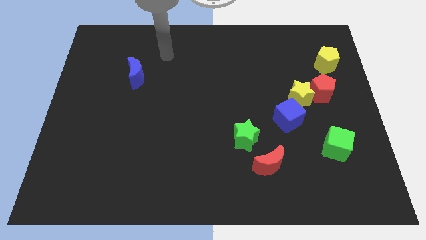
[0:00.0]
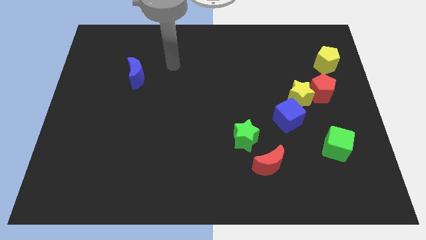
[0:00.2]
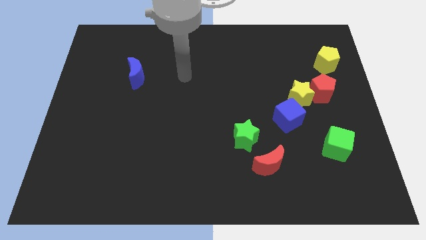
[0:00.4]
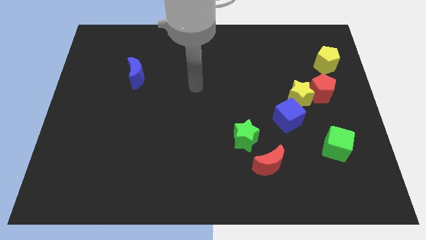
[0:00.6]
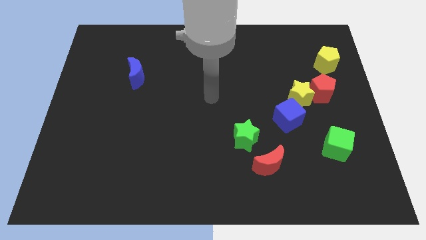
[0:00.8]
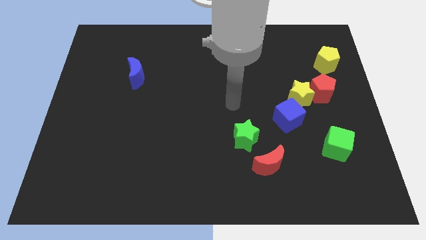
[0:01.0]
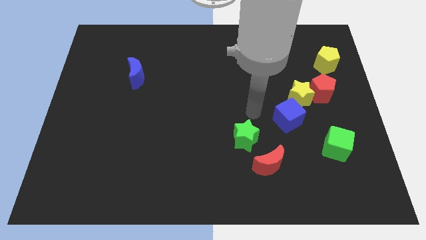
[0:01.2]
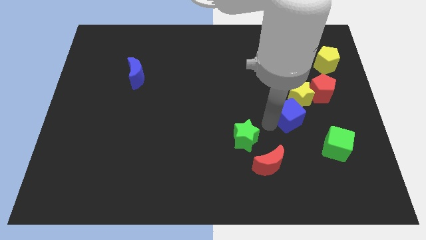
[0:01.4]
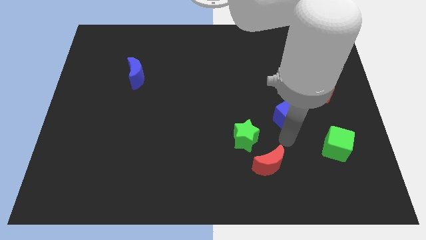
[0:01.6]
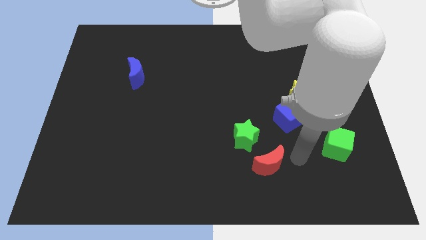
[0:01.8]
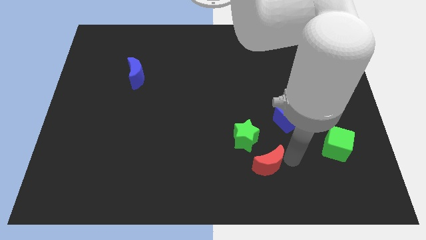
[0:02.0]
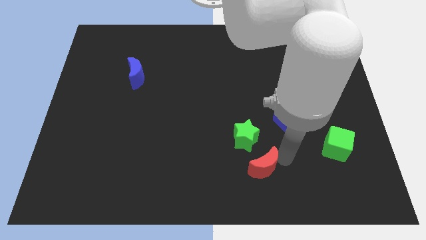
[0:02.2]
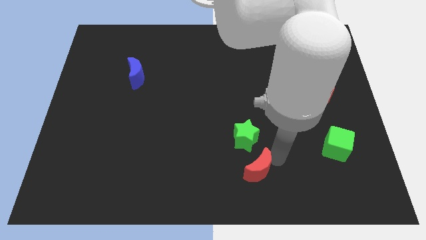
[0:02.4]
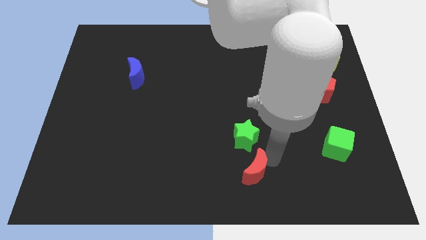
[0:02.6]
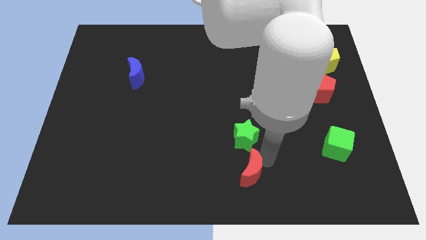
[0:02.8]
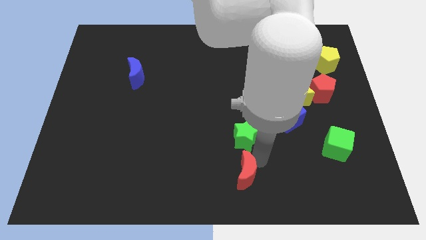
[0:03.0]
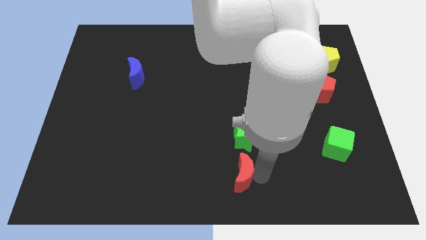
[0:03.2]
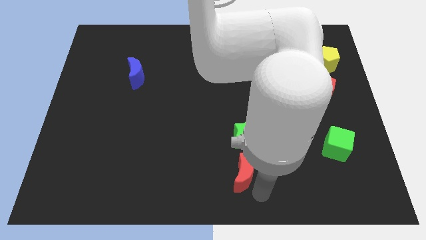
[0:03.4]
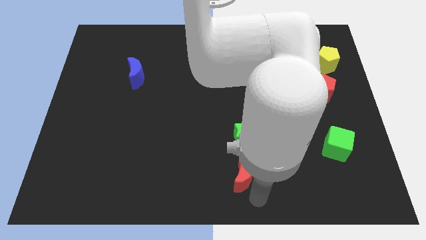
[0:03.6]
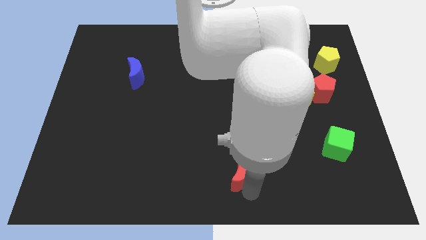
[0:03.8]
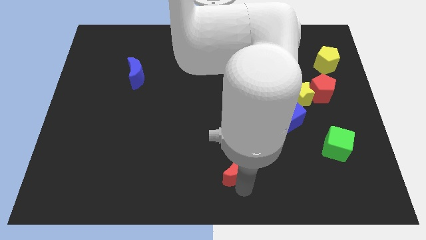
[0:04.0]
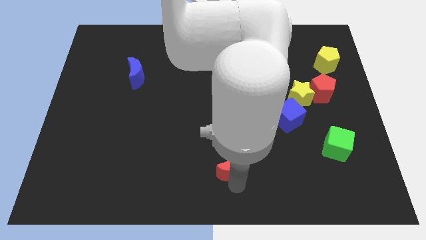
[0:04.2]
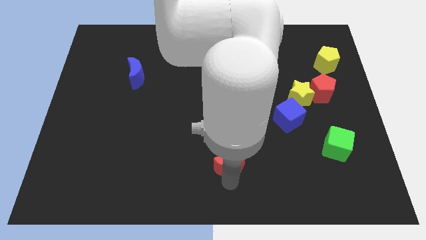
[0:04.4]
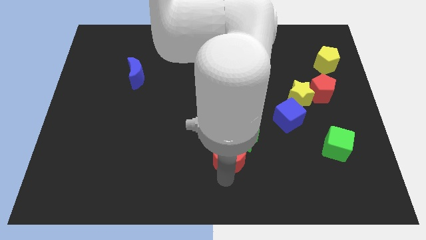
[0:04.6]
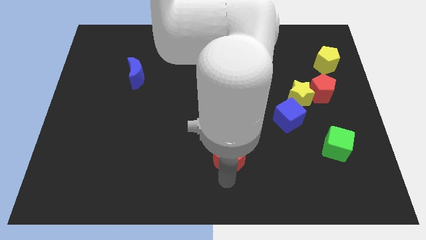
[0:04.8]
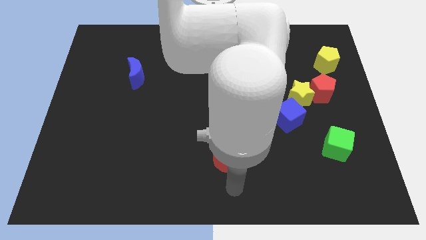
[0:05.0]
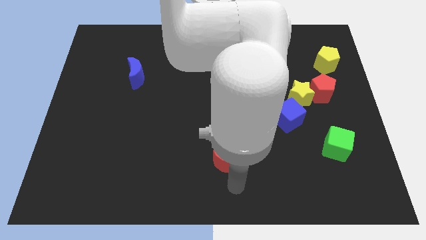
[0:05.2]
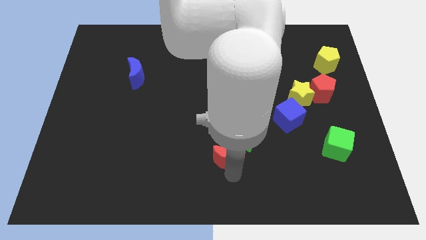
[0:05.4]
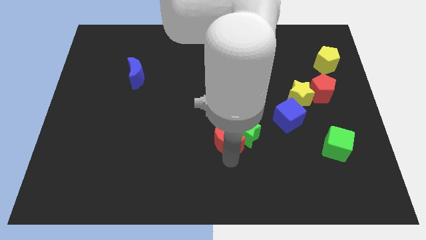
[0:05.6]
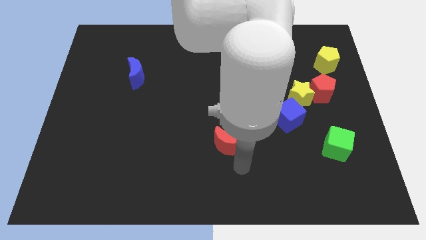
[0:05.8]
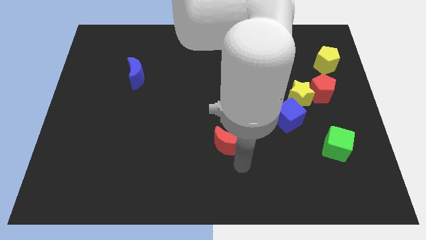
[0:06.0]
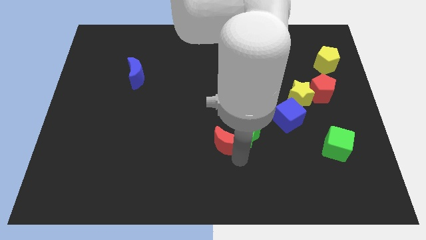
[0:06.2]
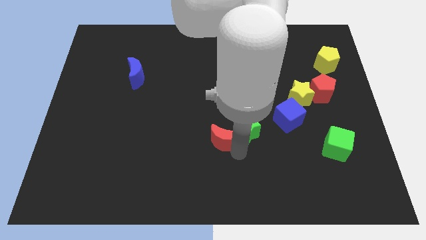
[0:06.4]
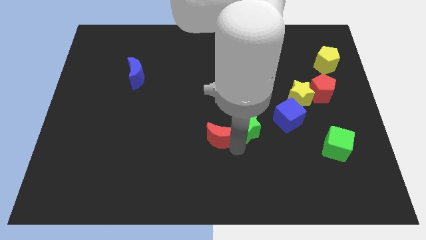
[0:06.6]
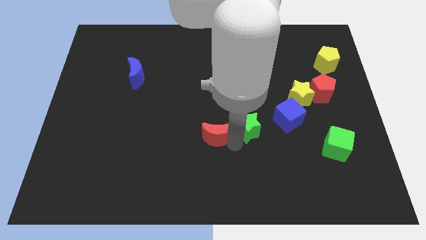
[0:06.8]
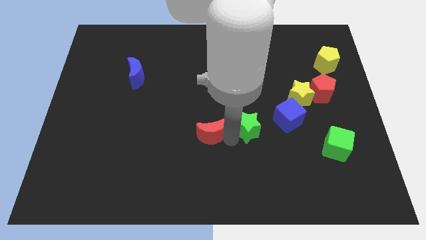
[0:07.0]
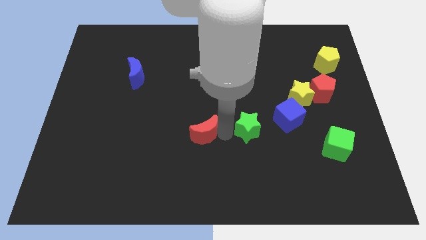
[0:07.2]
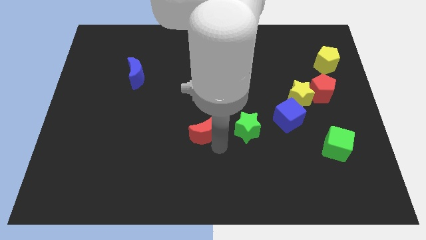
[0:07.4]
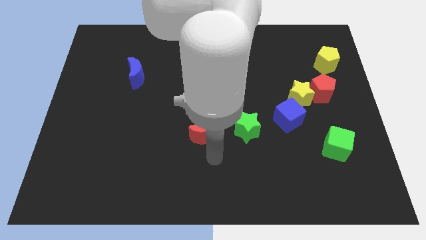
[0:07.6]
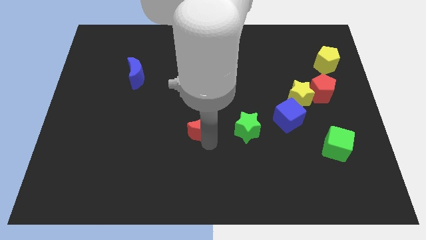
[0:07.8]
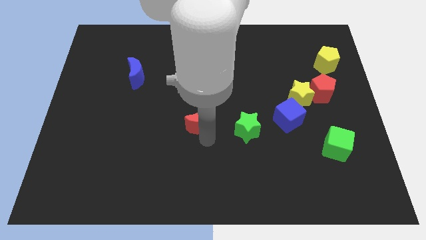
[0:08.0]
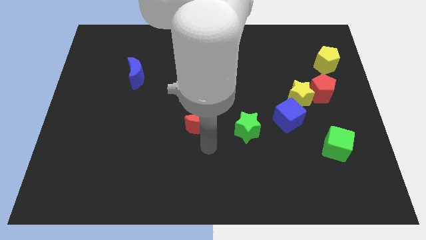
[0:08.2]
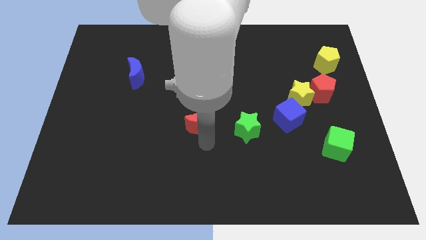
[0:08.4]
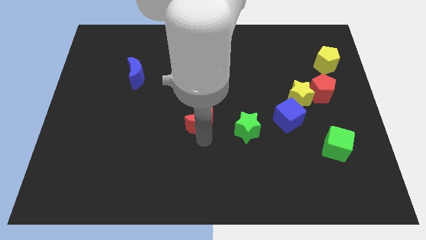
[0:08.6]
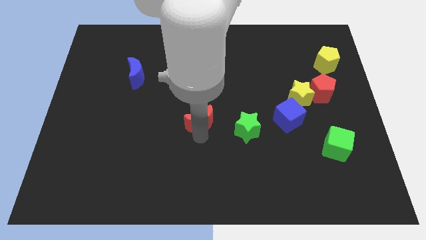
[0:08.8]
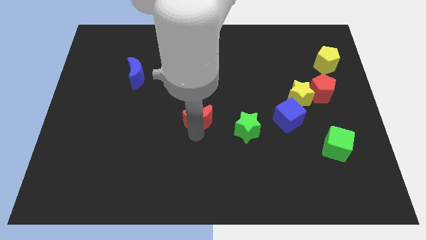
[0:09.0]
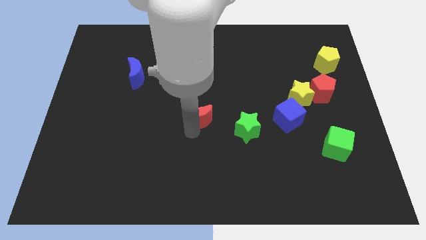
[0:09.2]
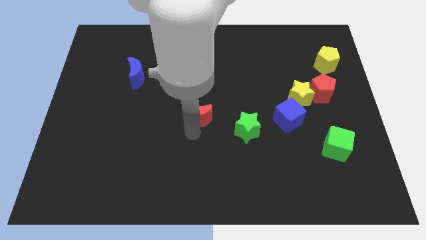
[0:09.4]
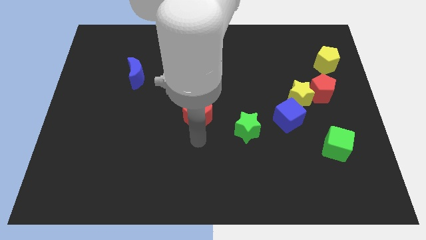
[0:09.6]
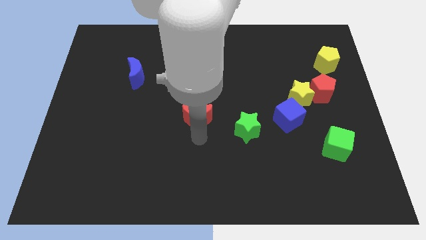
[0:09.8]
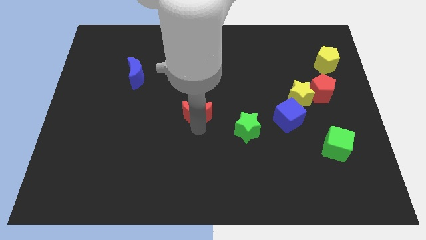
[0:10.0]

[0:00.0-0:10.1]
move the red moon diagonally up and to the left

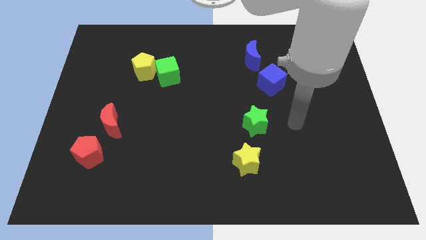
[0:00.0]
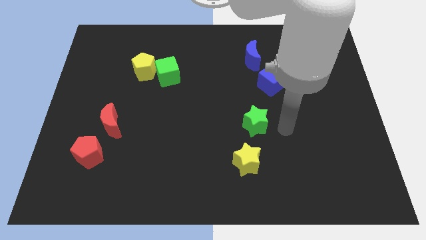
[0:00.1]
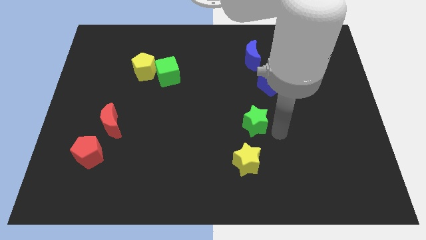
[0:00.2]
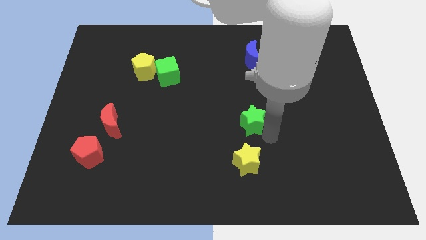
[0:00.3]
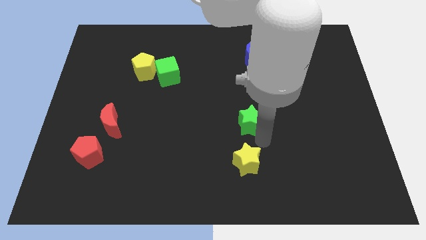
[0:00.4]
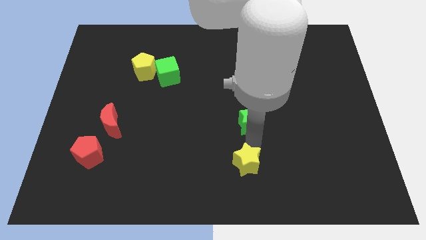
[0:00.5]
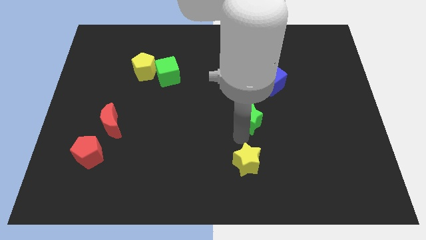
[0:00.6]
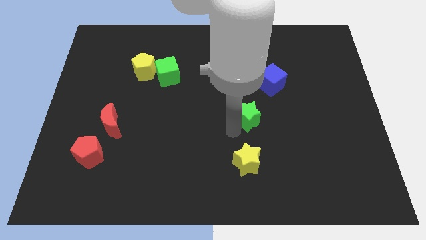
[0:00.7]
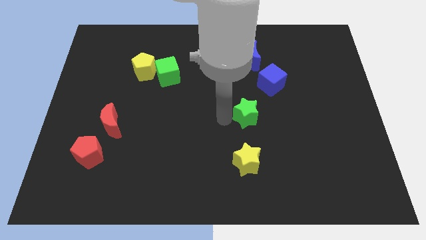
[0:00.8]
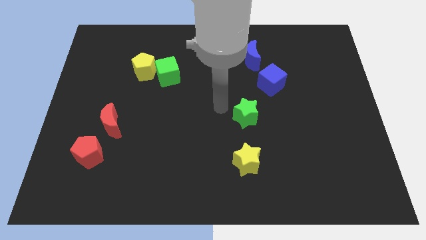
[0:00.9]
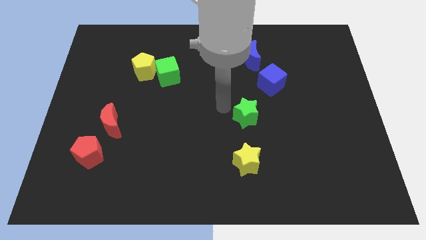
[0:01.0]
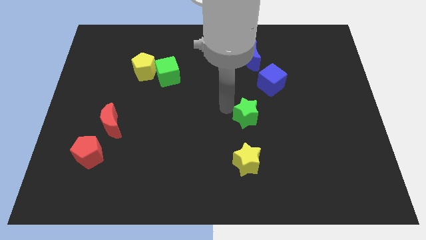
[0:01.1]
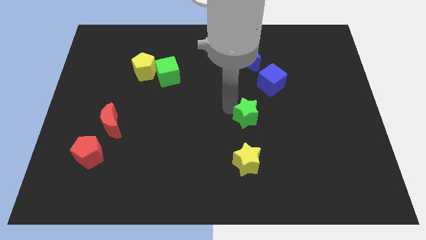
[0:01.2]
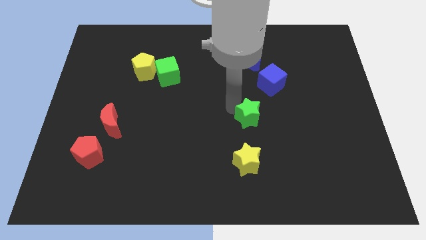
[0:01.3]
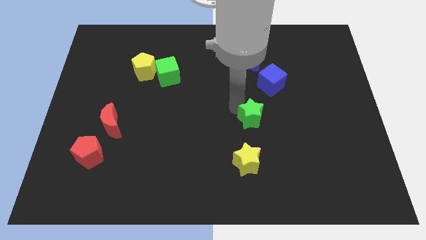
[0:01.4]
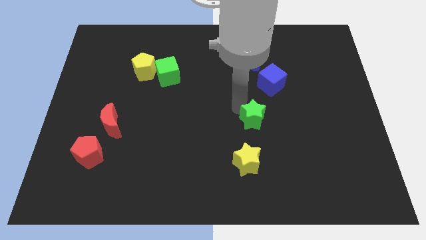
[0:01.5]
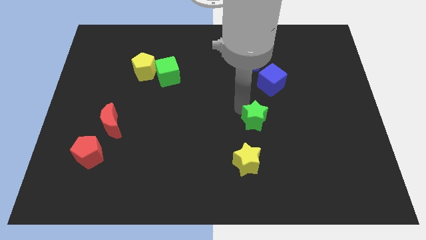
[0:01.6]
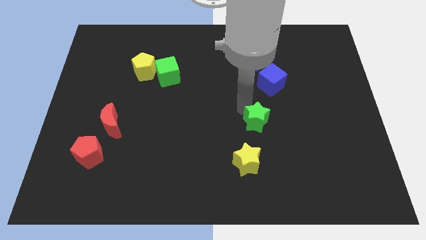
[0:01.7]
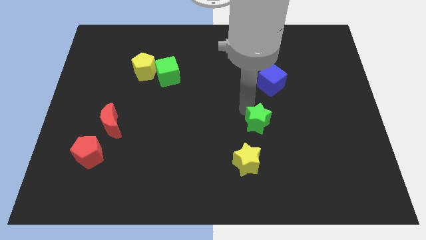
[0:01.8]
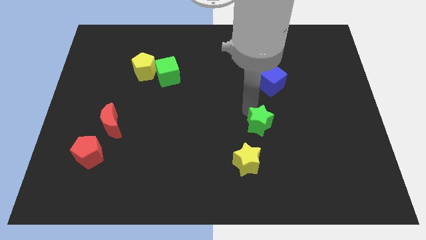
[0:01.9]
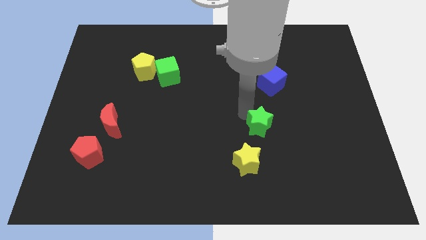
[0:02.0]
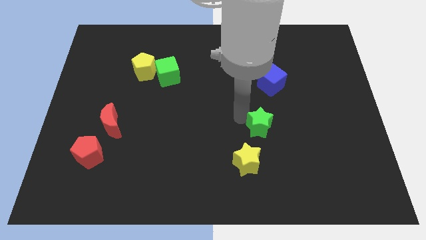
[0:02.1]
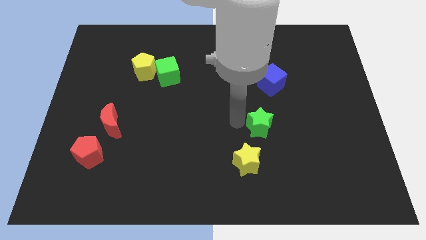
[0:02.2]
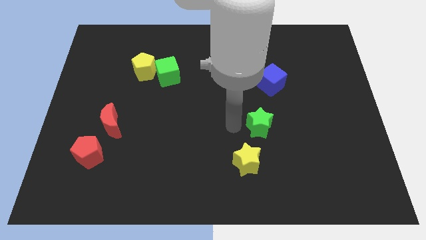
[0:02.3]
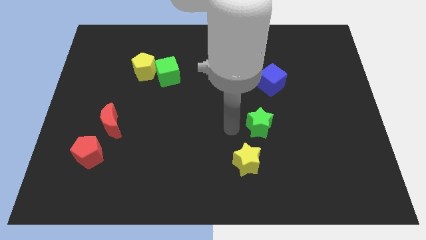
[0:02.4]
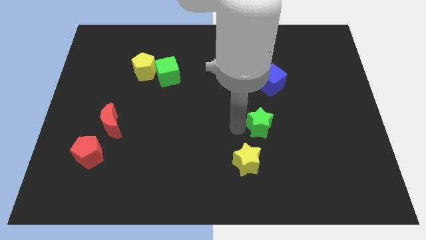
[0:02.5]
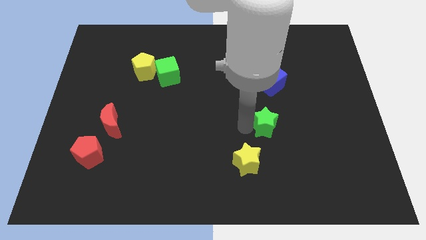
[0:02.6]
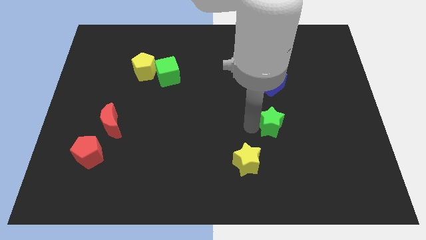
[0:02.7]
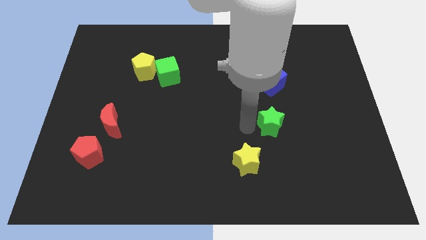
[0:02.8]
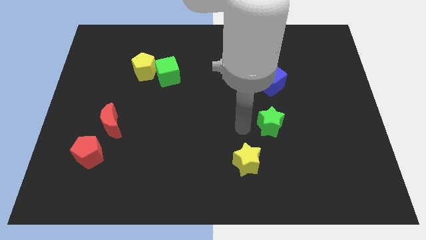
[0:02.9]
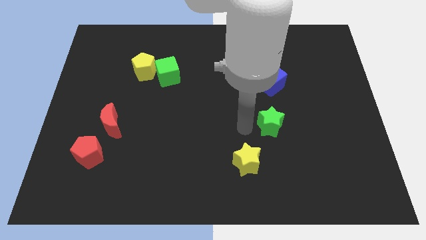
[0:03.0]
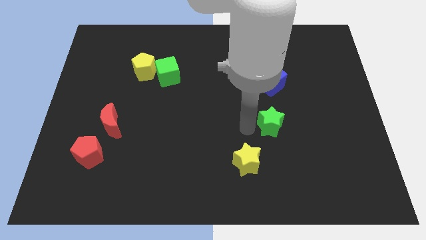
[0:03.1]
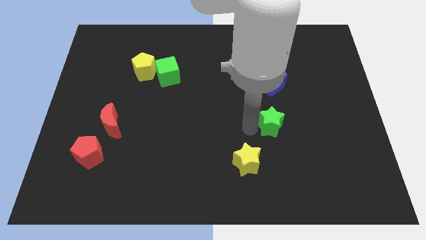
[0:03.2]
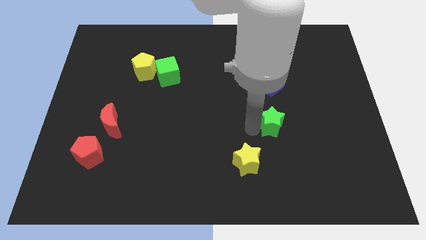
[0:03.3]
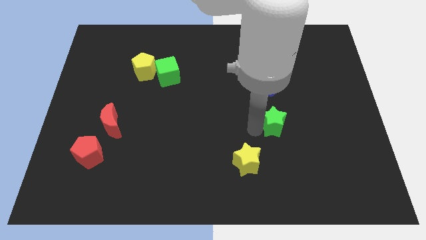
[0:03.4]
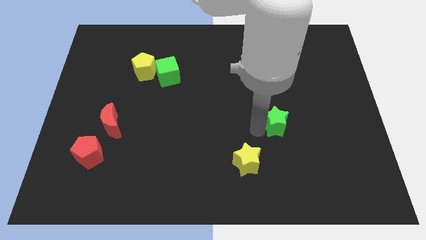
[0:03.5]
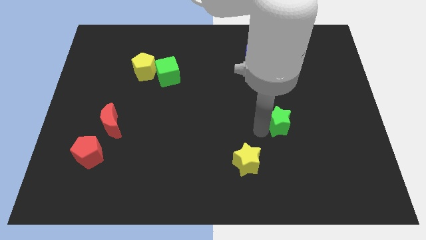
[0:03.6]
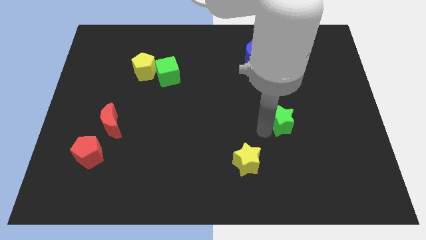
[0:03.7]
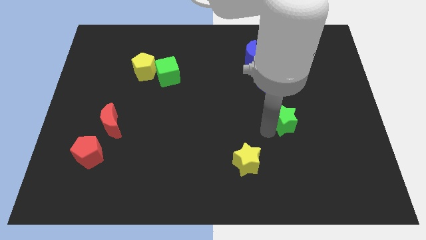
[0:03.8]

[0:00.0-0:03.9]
push the green star a little to the right
